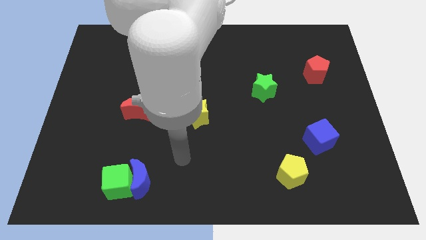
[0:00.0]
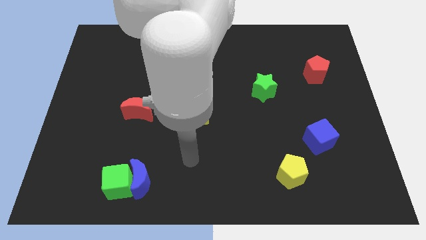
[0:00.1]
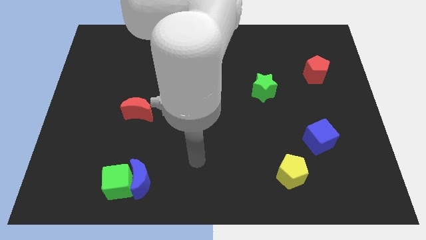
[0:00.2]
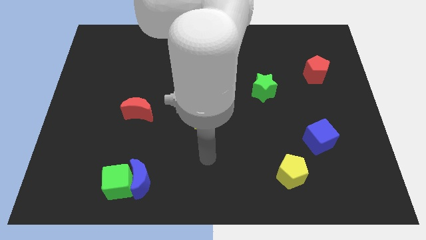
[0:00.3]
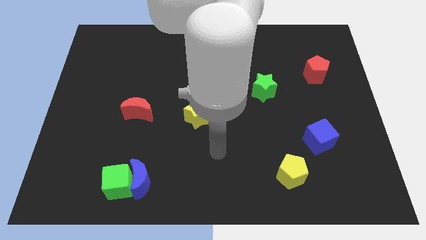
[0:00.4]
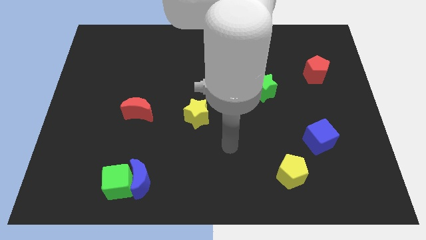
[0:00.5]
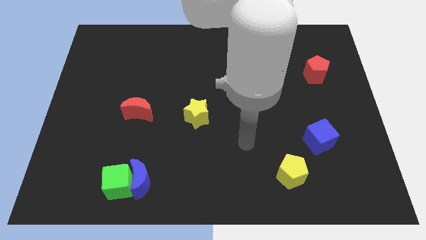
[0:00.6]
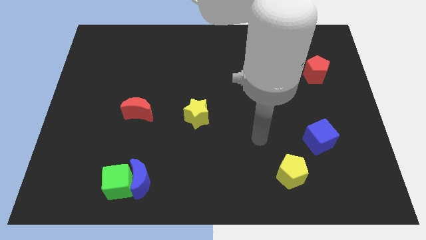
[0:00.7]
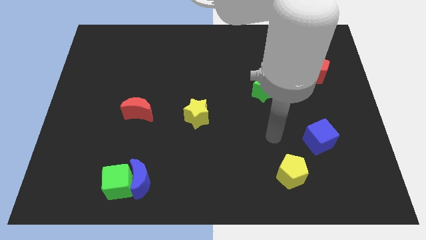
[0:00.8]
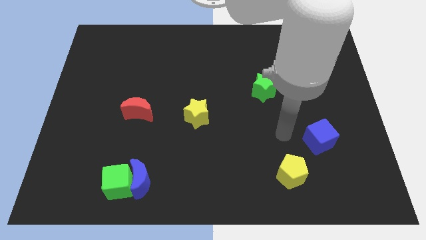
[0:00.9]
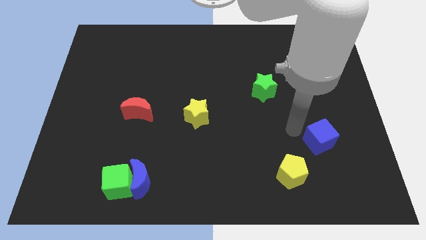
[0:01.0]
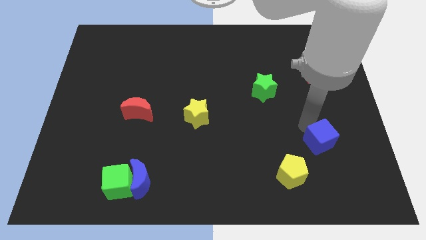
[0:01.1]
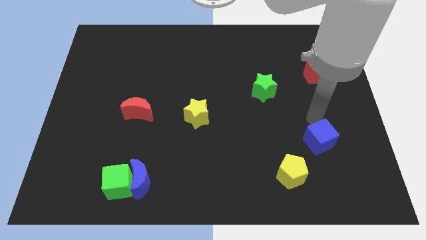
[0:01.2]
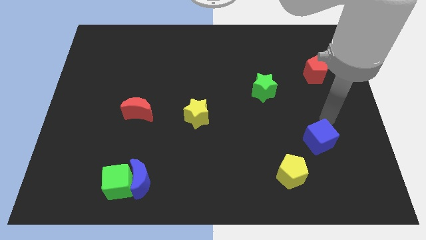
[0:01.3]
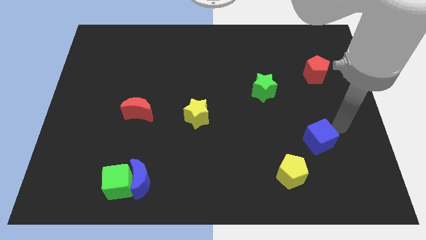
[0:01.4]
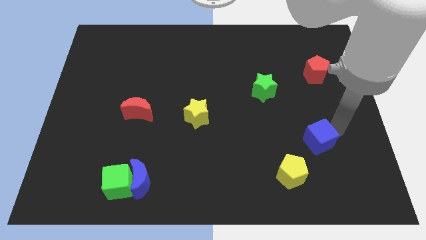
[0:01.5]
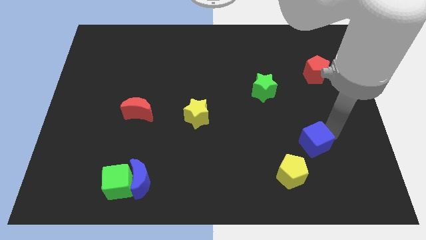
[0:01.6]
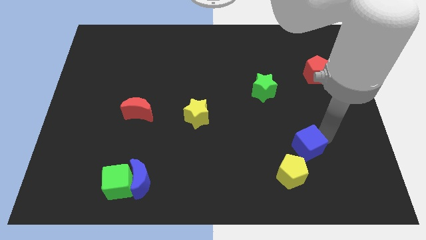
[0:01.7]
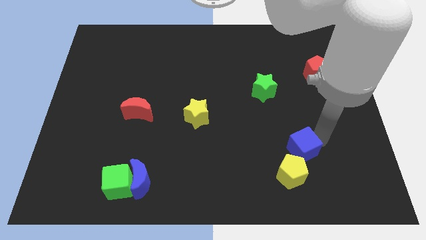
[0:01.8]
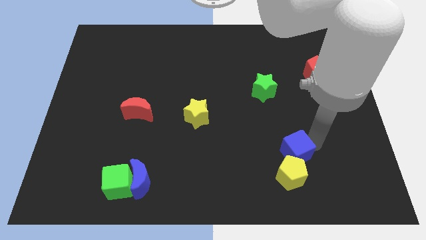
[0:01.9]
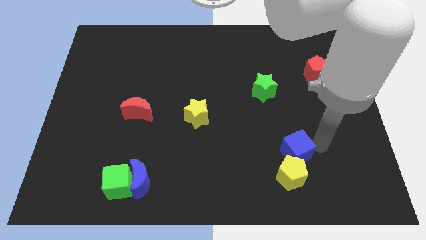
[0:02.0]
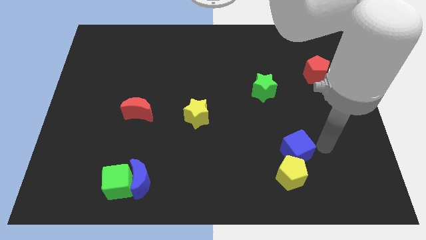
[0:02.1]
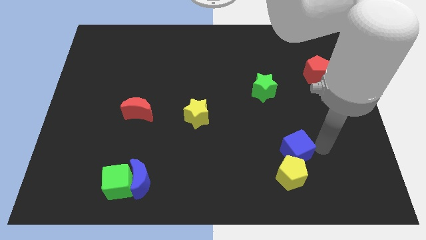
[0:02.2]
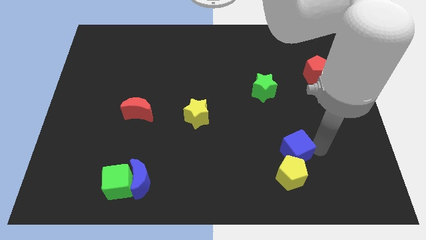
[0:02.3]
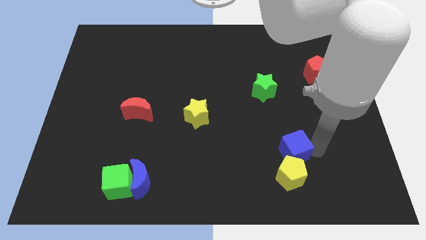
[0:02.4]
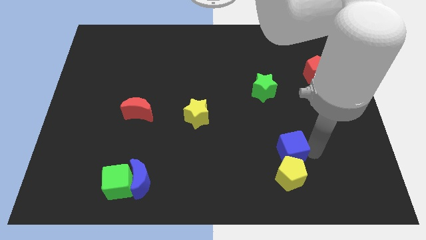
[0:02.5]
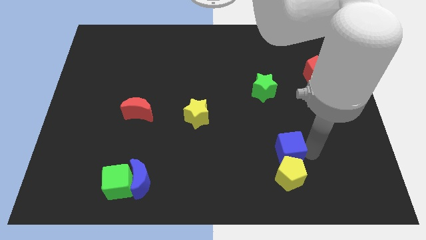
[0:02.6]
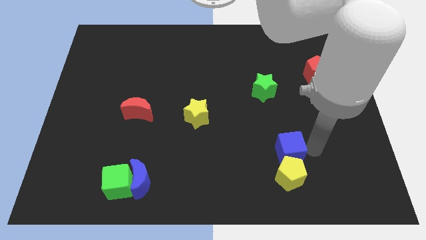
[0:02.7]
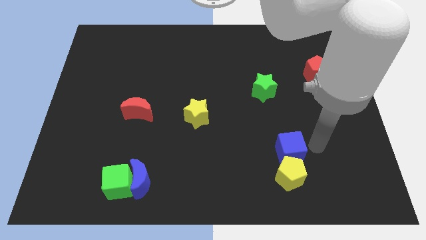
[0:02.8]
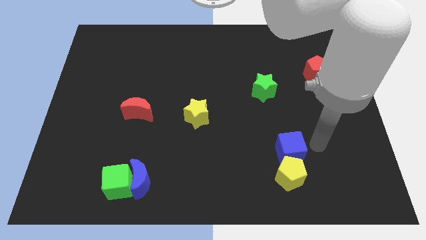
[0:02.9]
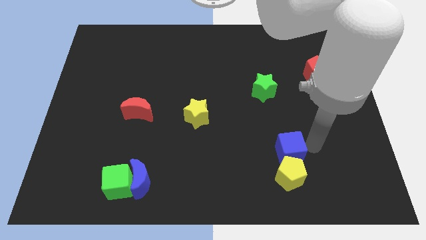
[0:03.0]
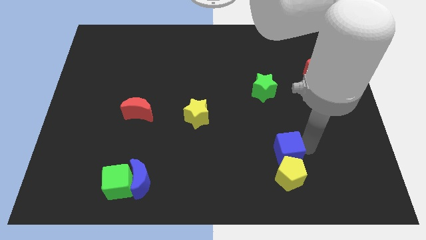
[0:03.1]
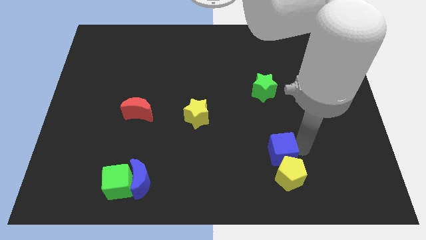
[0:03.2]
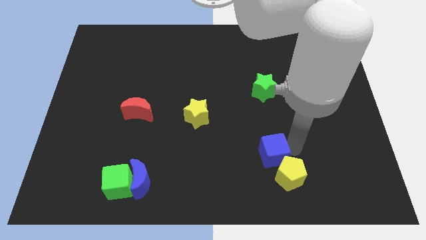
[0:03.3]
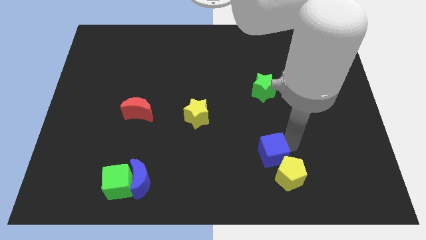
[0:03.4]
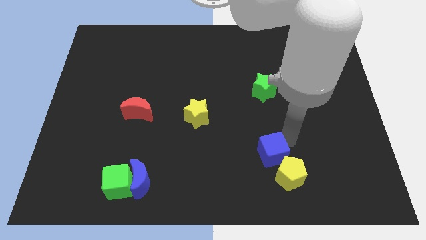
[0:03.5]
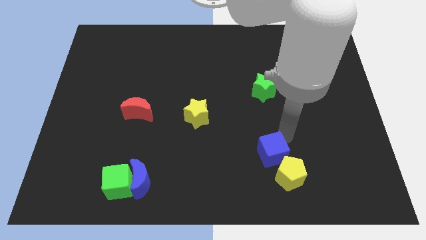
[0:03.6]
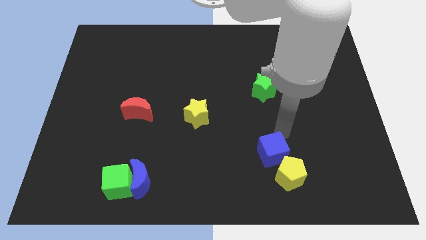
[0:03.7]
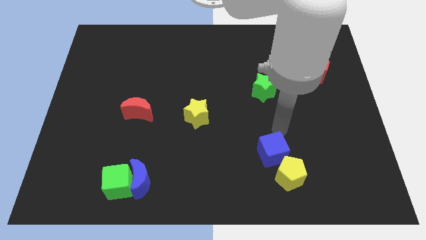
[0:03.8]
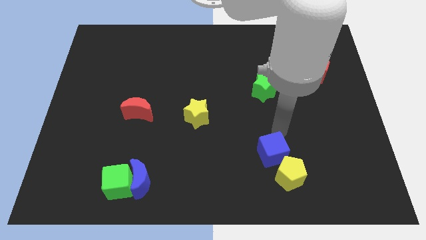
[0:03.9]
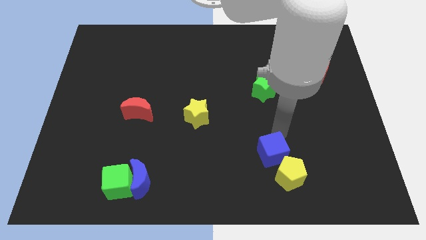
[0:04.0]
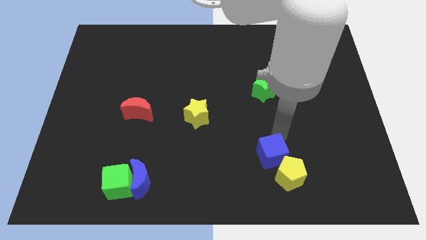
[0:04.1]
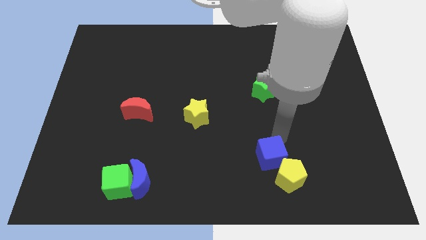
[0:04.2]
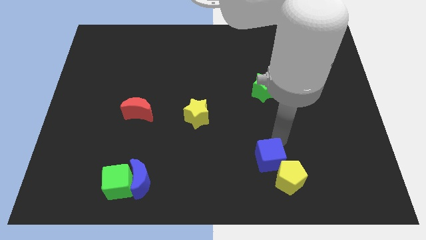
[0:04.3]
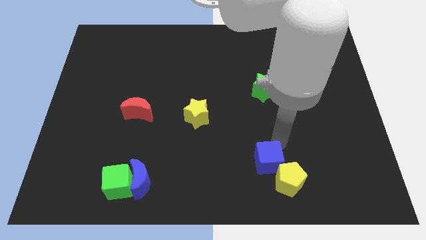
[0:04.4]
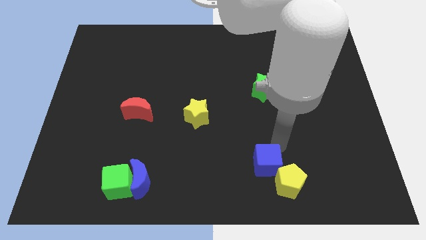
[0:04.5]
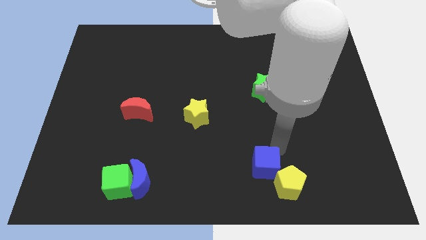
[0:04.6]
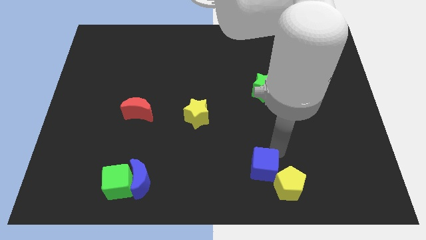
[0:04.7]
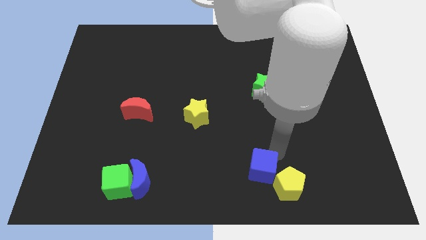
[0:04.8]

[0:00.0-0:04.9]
move the blue cube to the bottom side
